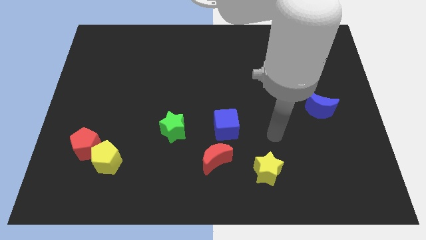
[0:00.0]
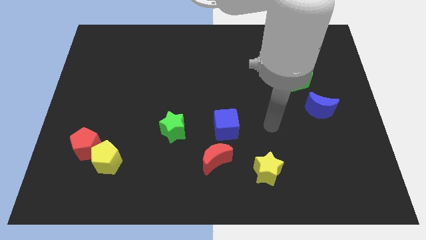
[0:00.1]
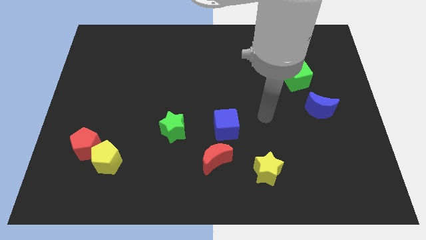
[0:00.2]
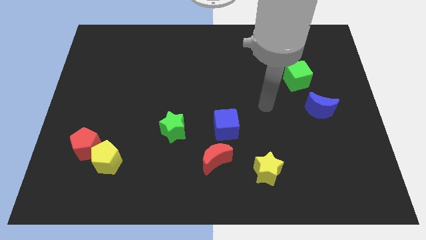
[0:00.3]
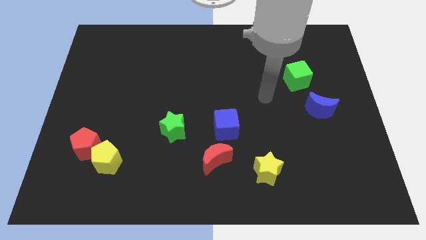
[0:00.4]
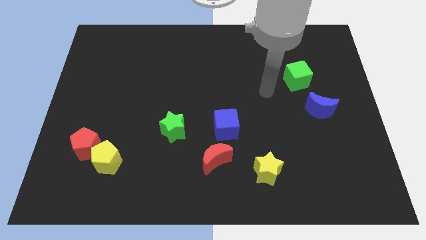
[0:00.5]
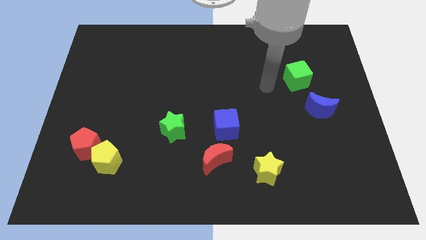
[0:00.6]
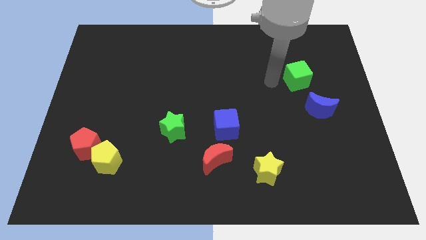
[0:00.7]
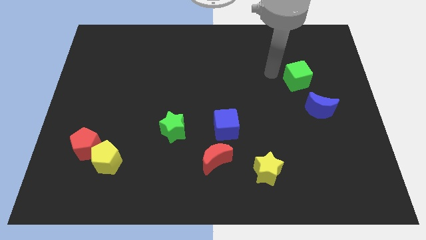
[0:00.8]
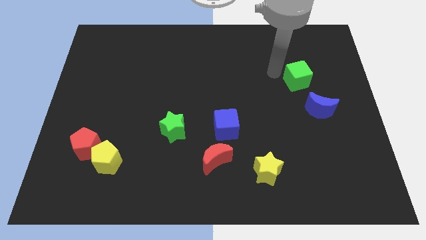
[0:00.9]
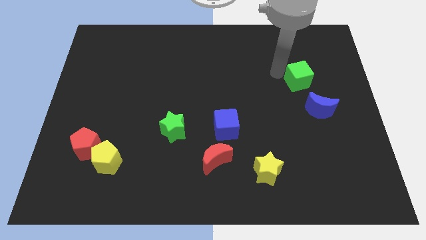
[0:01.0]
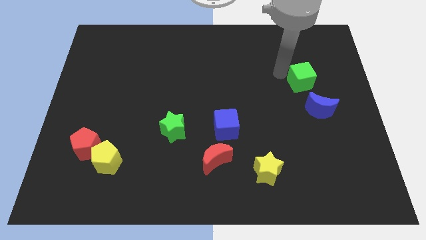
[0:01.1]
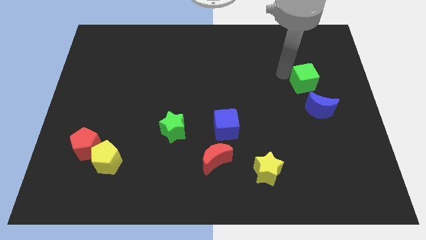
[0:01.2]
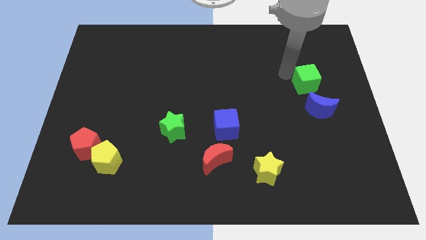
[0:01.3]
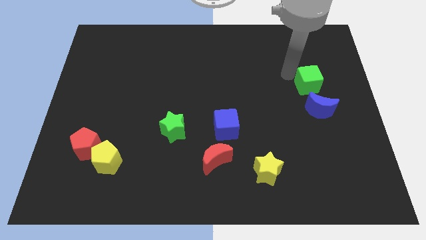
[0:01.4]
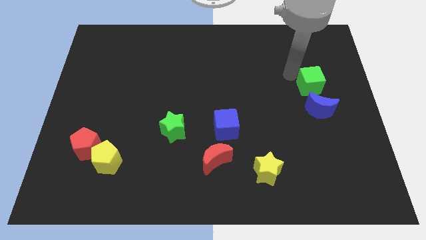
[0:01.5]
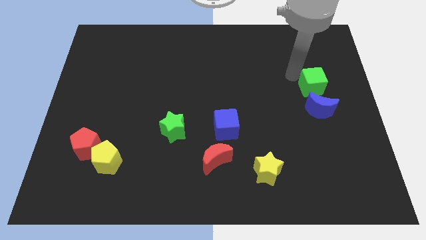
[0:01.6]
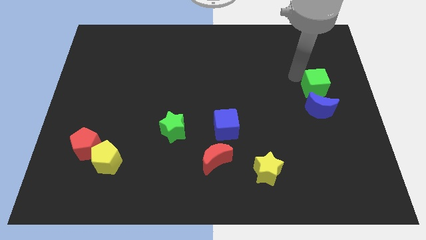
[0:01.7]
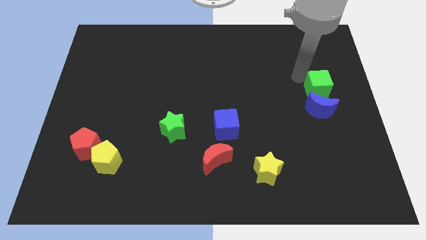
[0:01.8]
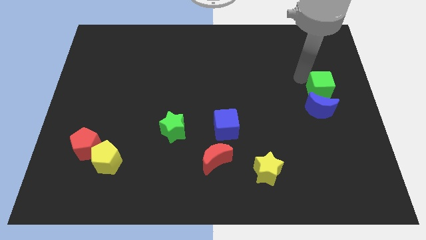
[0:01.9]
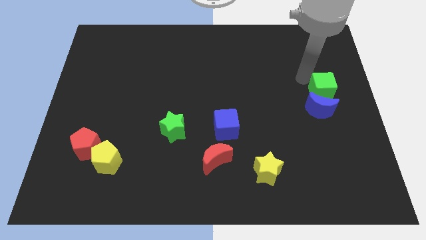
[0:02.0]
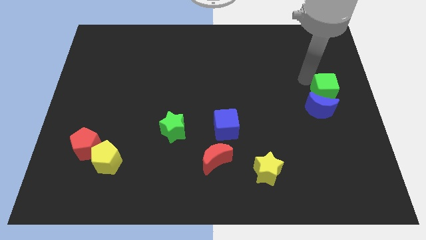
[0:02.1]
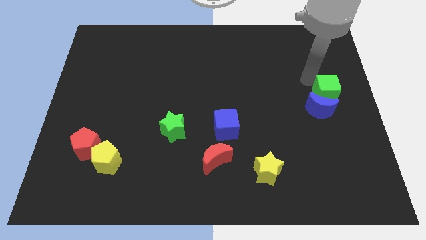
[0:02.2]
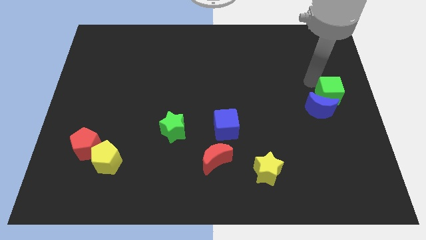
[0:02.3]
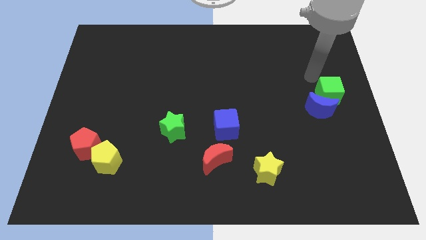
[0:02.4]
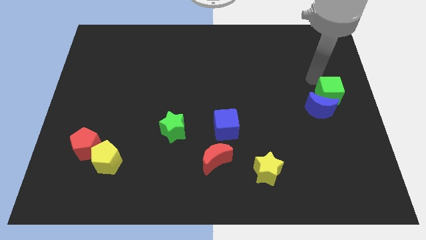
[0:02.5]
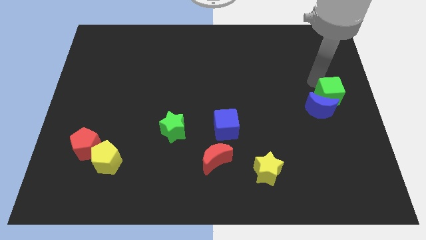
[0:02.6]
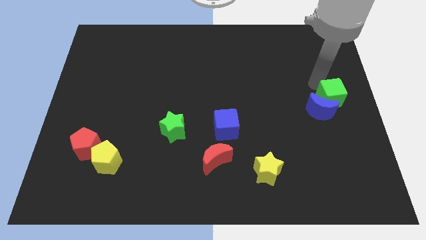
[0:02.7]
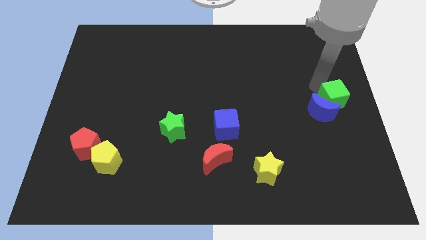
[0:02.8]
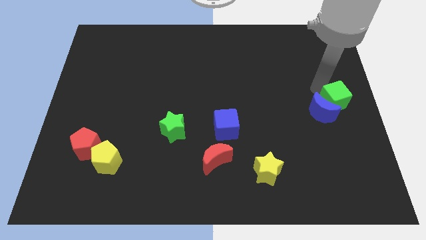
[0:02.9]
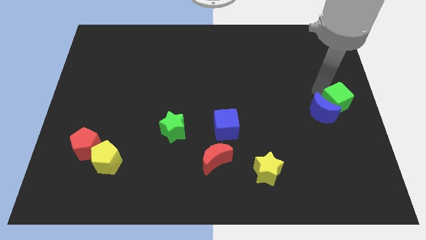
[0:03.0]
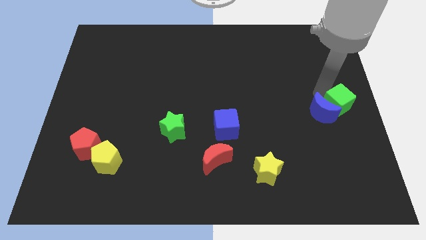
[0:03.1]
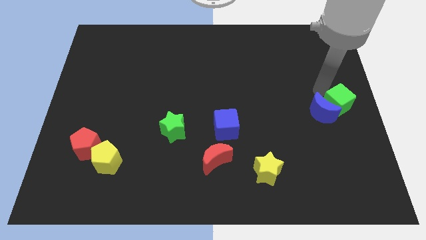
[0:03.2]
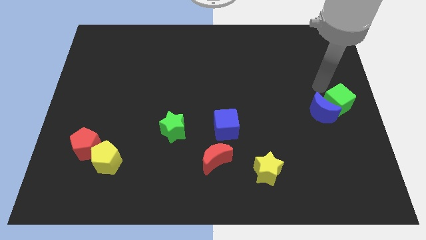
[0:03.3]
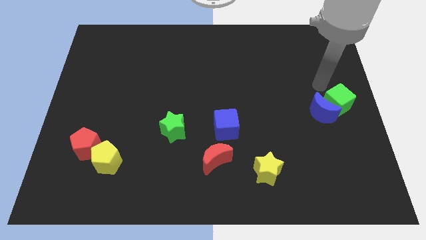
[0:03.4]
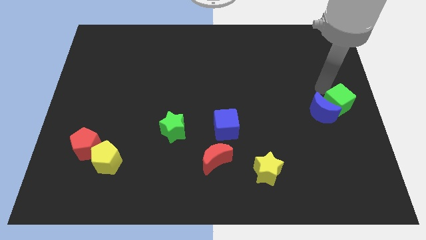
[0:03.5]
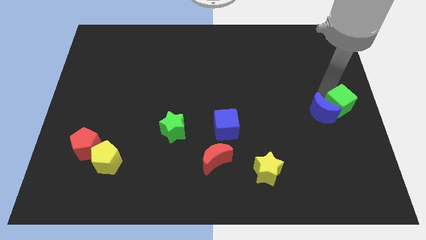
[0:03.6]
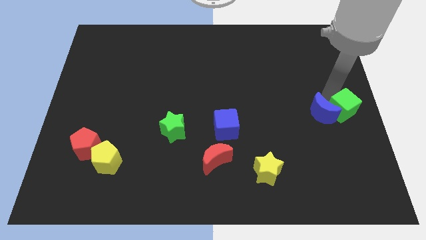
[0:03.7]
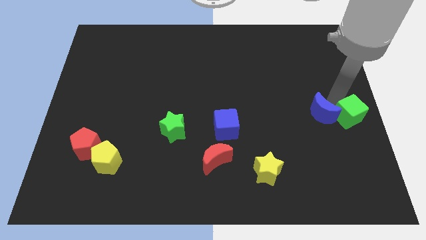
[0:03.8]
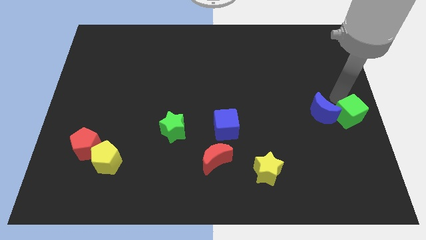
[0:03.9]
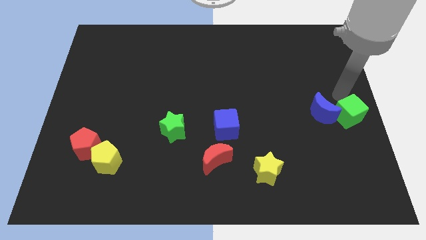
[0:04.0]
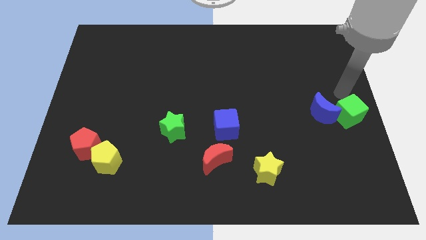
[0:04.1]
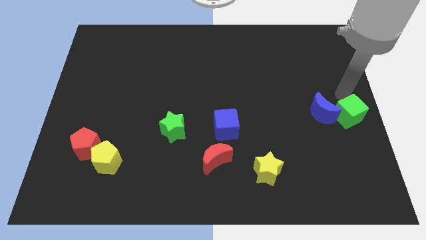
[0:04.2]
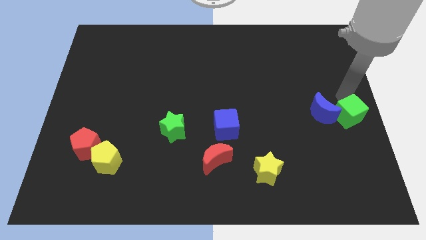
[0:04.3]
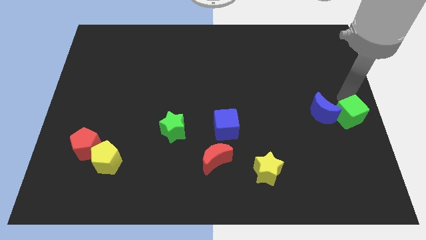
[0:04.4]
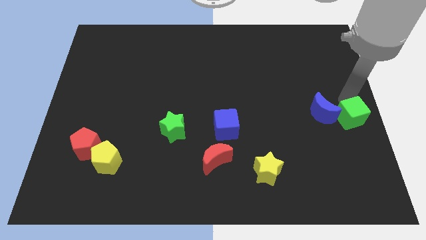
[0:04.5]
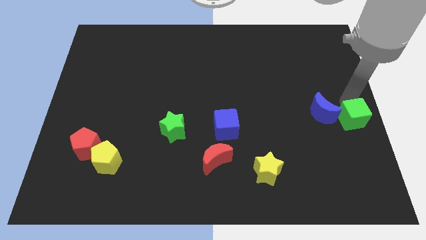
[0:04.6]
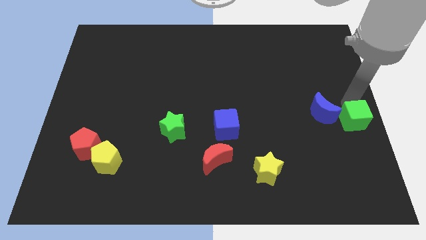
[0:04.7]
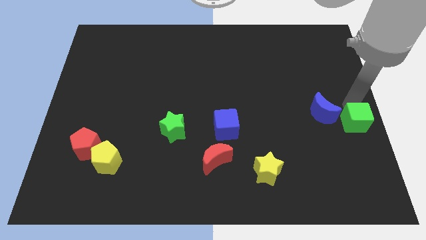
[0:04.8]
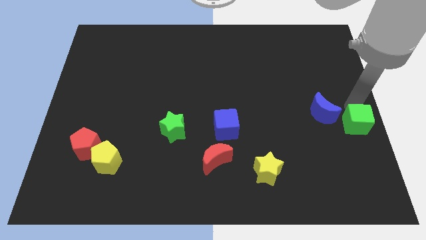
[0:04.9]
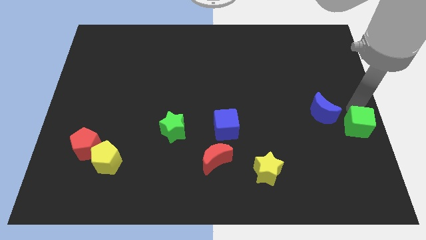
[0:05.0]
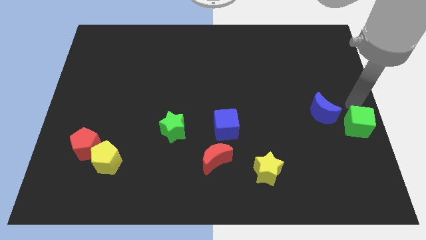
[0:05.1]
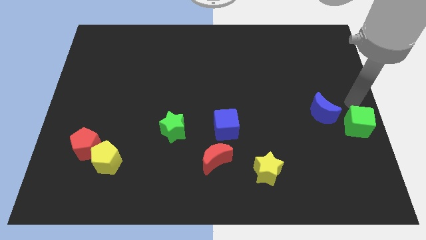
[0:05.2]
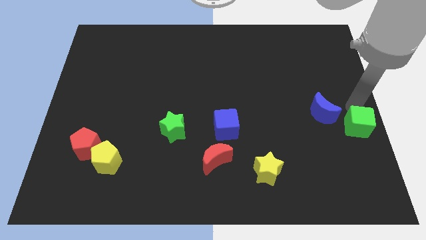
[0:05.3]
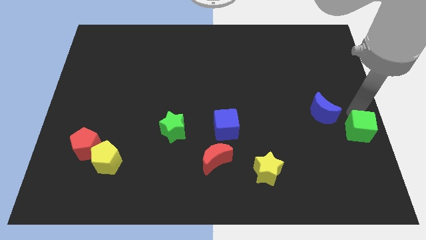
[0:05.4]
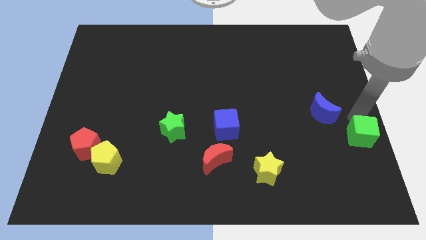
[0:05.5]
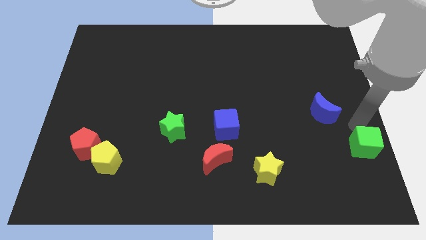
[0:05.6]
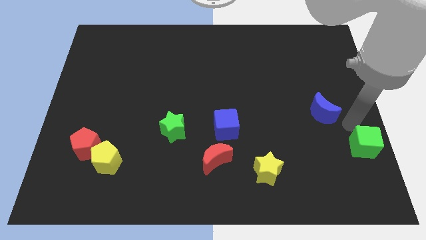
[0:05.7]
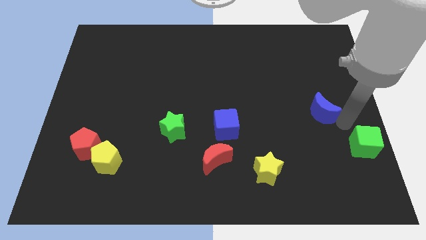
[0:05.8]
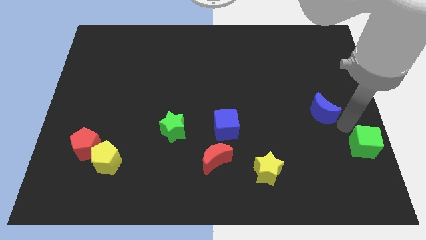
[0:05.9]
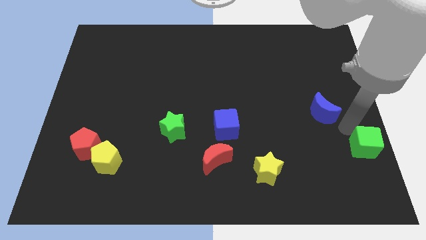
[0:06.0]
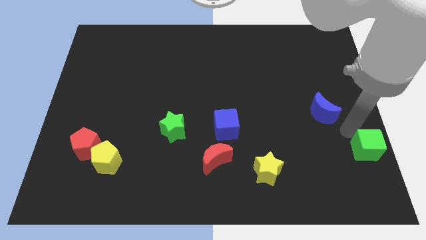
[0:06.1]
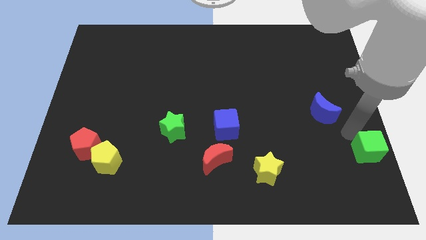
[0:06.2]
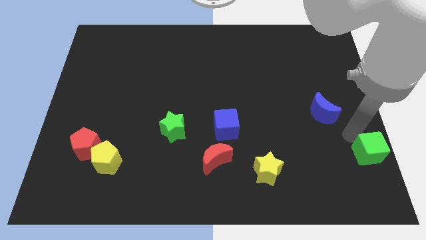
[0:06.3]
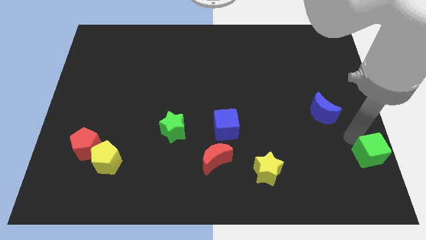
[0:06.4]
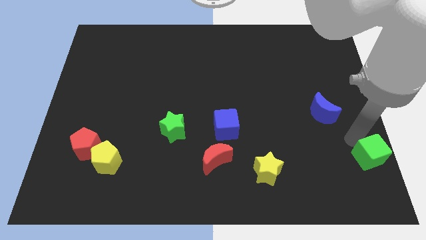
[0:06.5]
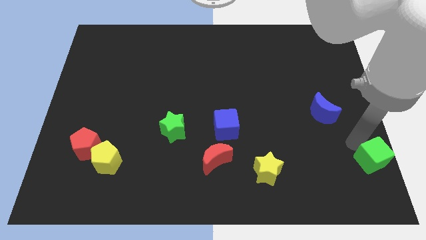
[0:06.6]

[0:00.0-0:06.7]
put the green cube to the bottom right of the board
